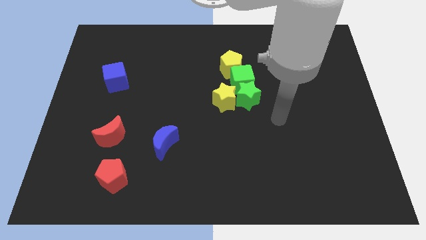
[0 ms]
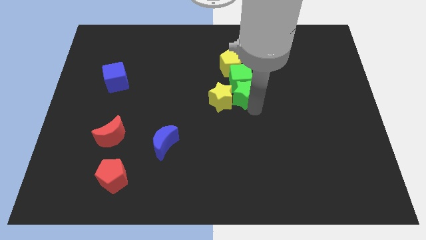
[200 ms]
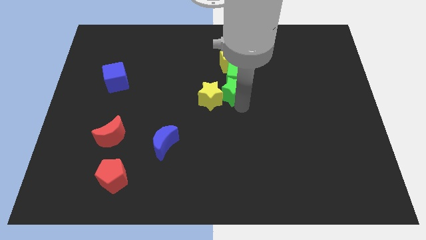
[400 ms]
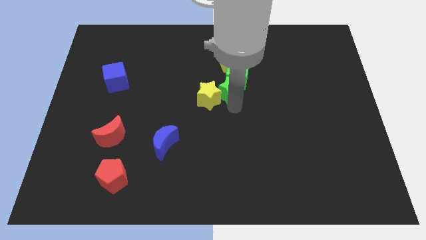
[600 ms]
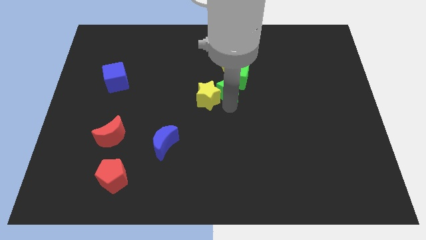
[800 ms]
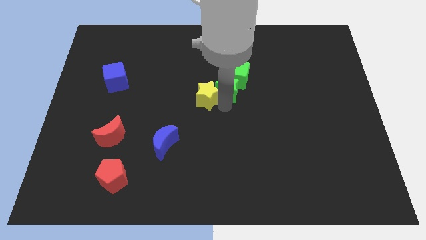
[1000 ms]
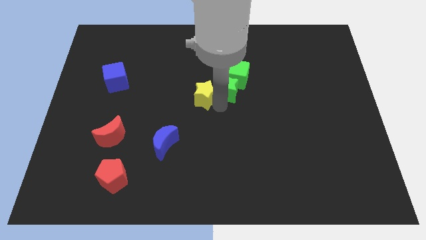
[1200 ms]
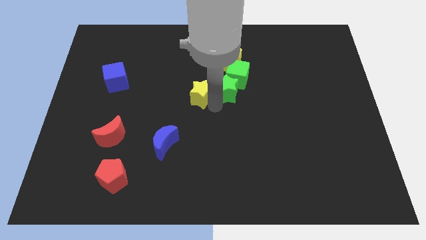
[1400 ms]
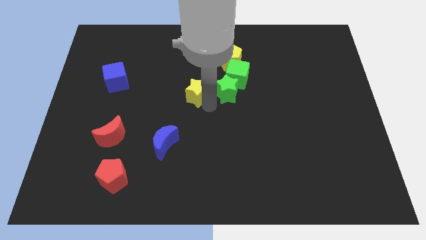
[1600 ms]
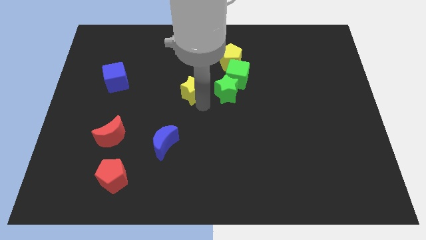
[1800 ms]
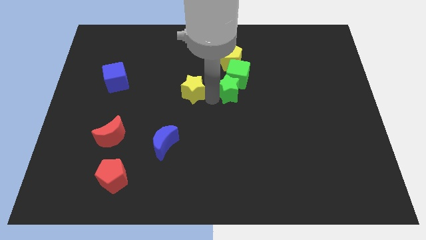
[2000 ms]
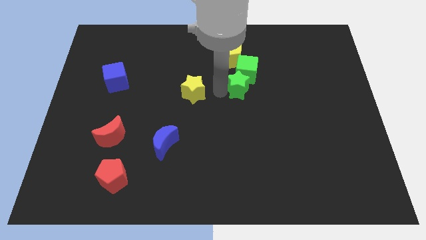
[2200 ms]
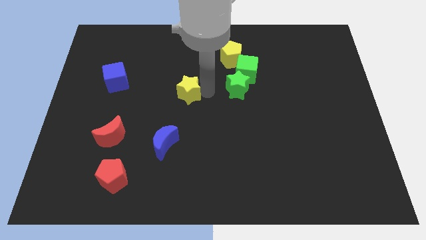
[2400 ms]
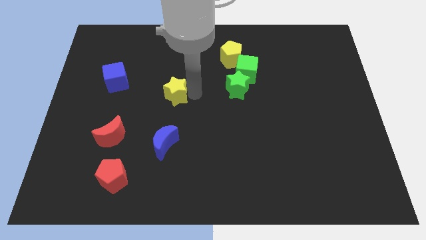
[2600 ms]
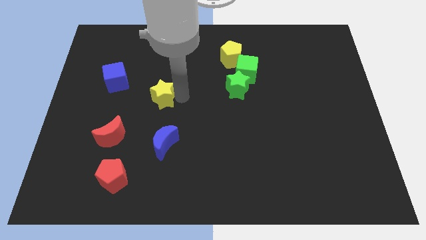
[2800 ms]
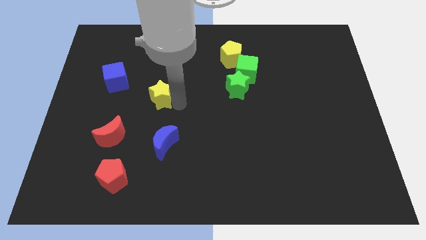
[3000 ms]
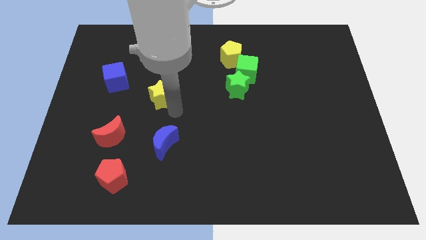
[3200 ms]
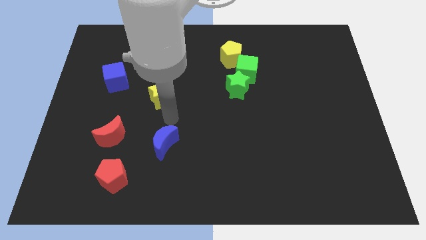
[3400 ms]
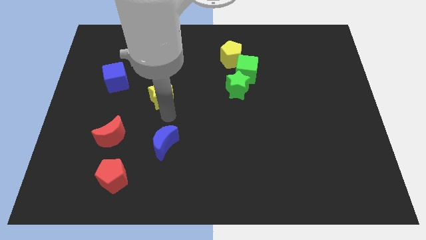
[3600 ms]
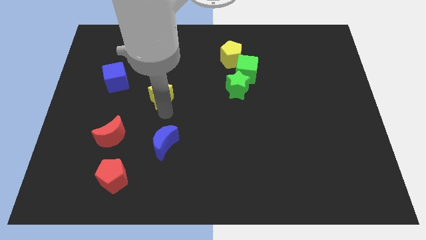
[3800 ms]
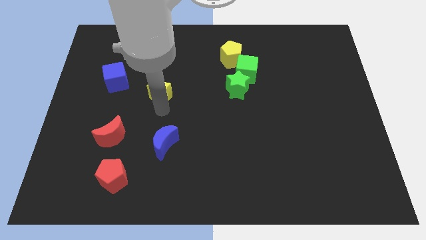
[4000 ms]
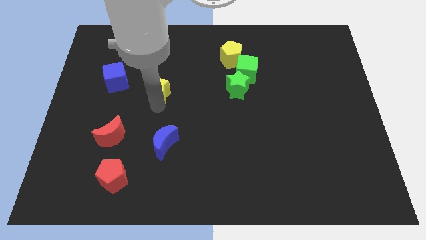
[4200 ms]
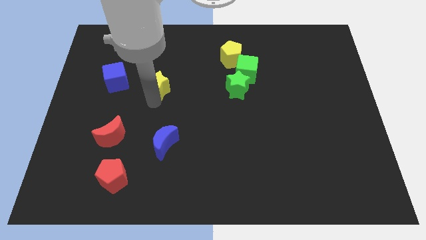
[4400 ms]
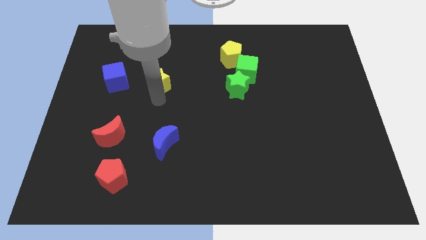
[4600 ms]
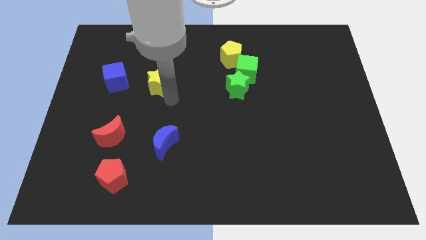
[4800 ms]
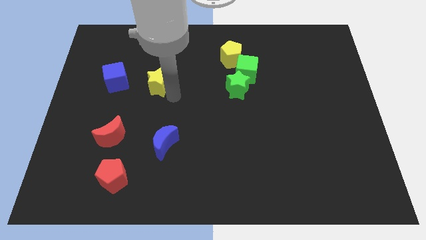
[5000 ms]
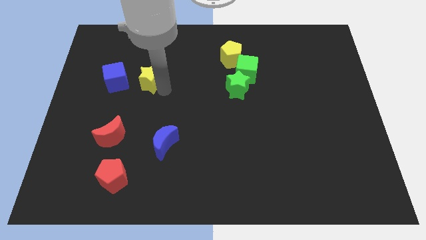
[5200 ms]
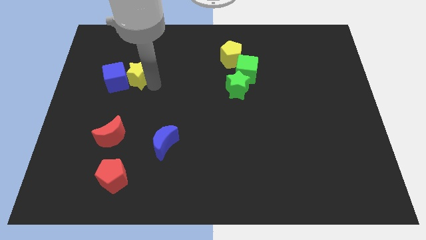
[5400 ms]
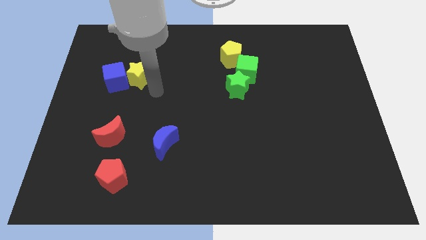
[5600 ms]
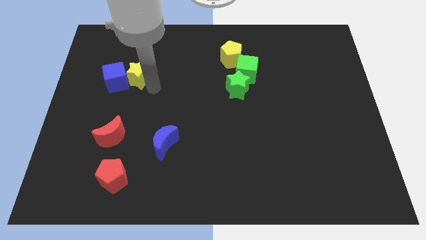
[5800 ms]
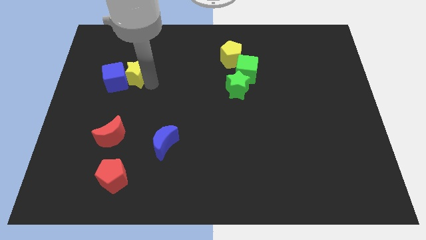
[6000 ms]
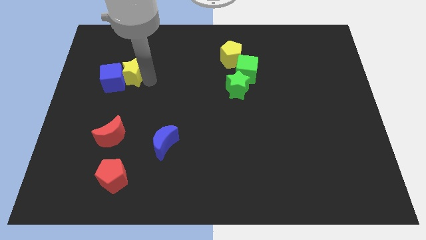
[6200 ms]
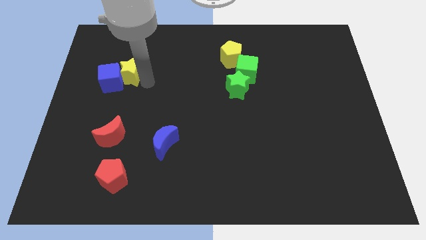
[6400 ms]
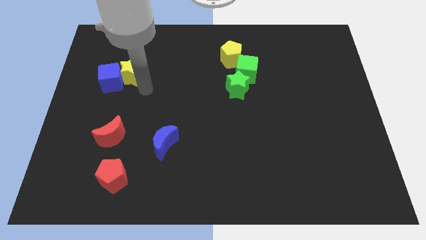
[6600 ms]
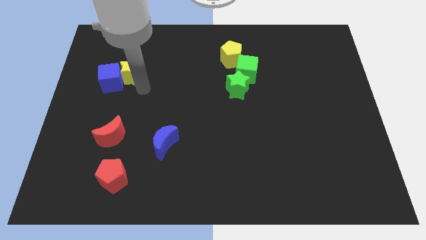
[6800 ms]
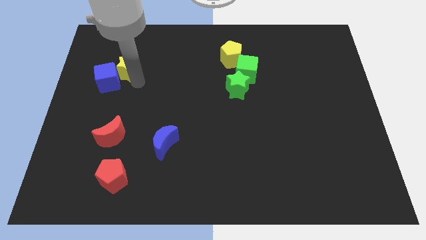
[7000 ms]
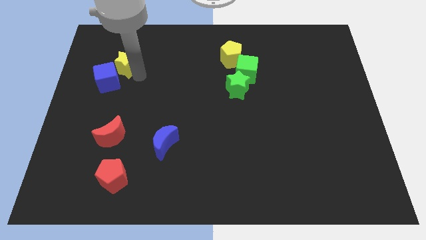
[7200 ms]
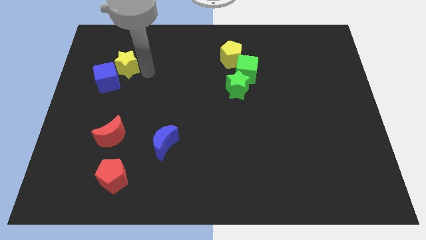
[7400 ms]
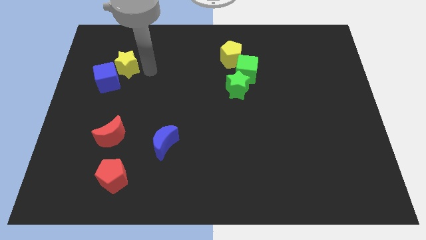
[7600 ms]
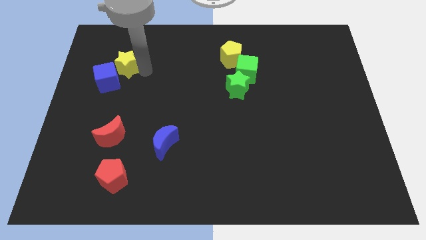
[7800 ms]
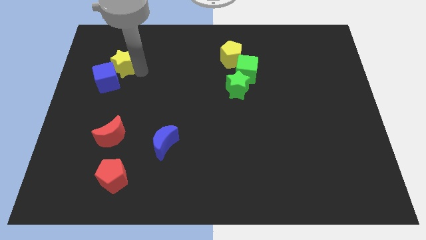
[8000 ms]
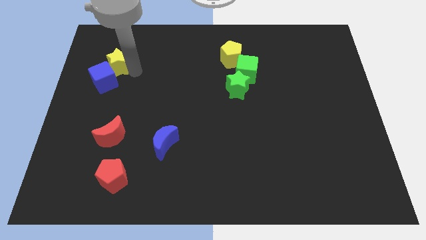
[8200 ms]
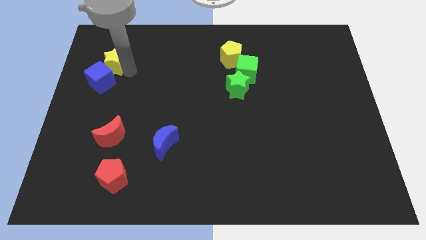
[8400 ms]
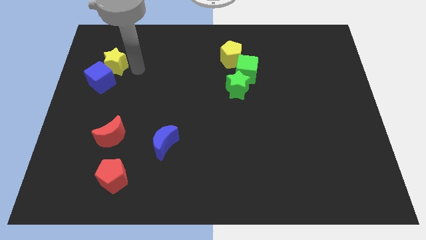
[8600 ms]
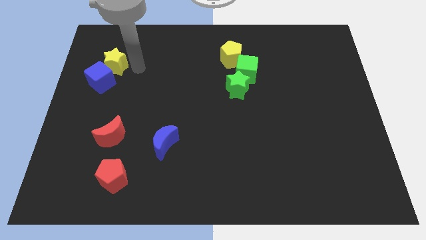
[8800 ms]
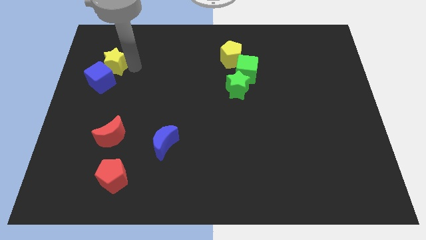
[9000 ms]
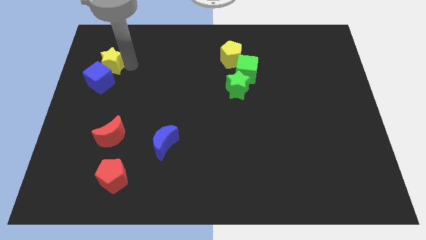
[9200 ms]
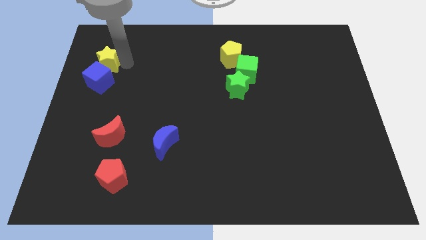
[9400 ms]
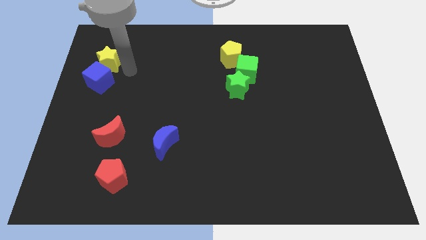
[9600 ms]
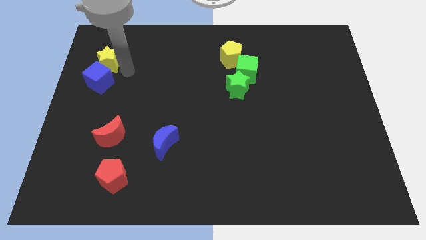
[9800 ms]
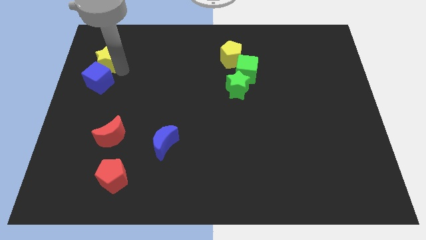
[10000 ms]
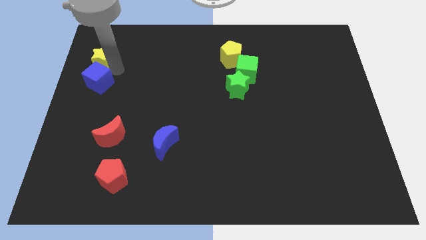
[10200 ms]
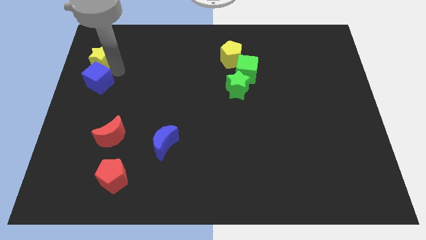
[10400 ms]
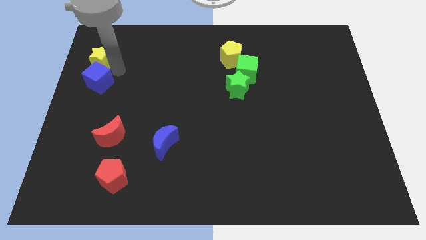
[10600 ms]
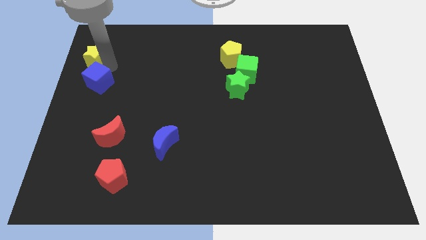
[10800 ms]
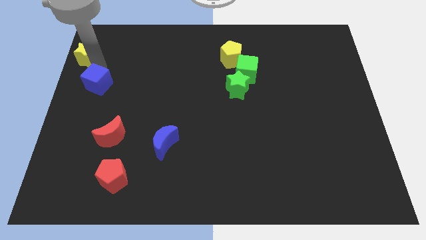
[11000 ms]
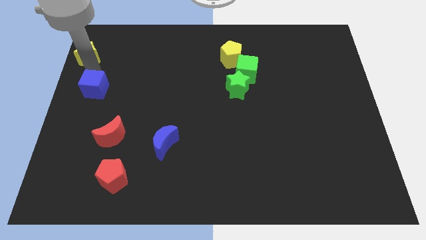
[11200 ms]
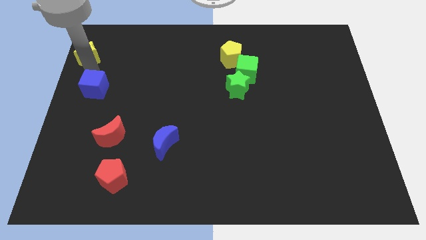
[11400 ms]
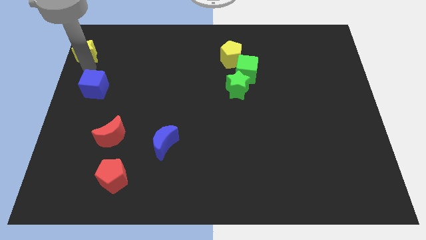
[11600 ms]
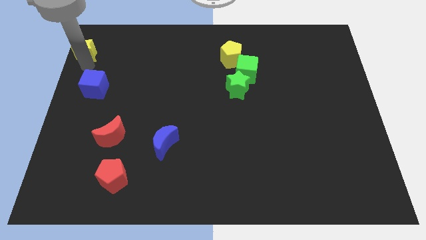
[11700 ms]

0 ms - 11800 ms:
put the yellow star to the top left of the board
